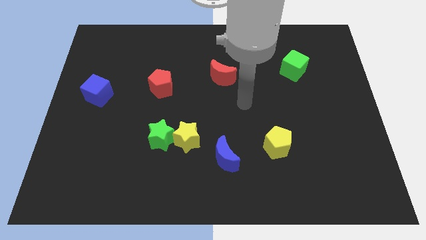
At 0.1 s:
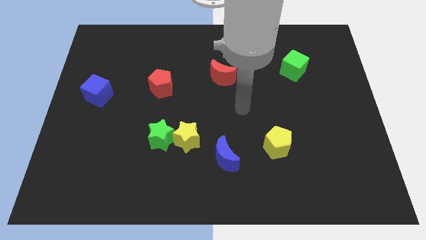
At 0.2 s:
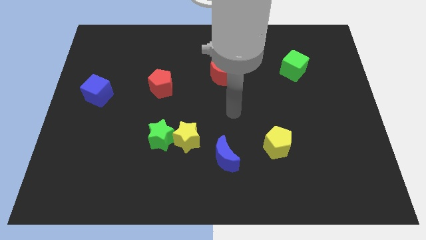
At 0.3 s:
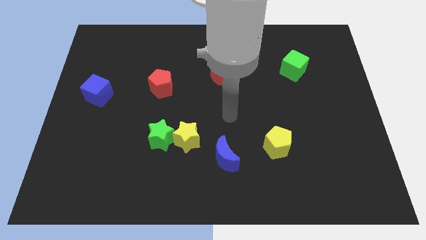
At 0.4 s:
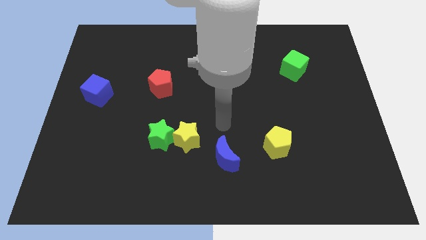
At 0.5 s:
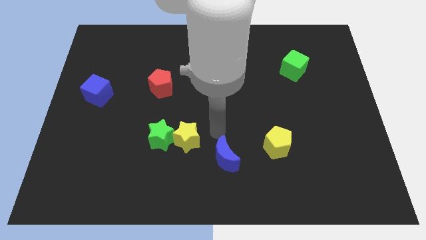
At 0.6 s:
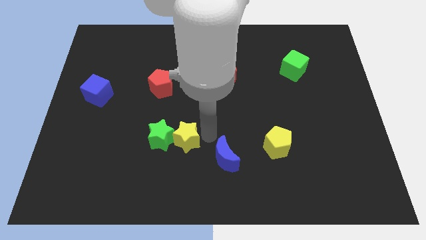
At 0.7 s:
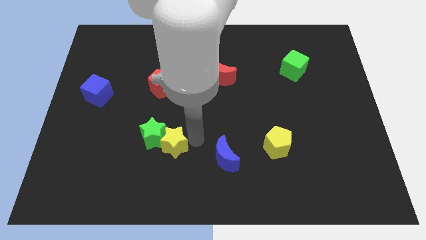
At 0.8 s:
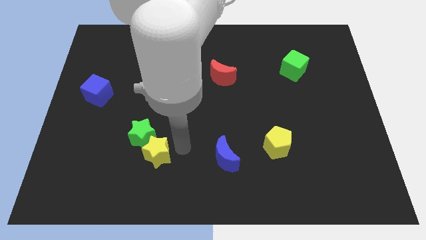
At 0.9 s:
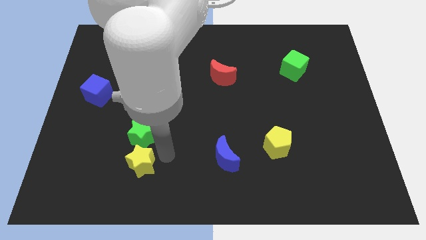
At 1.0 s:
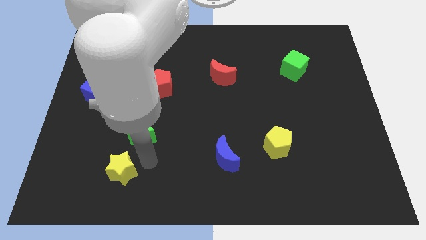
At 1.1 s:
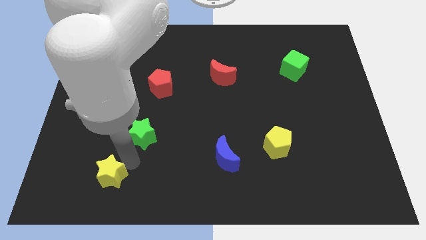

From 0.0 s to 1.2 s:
move the green star away from the yellow star

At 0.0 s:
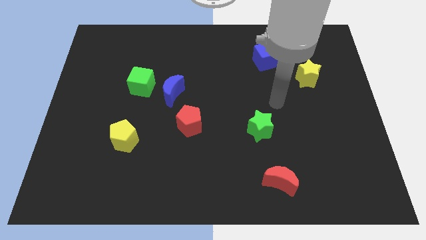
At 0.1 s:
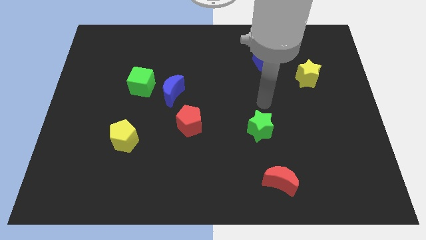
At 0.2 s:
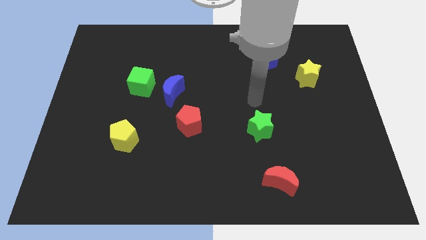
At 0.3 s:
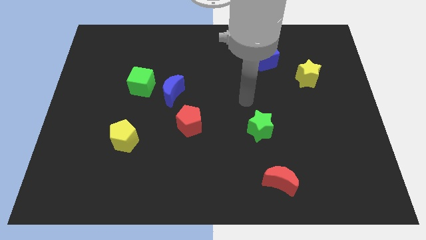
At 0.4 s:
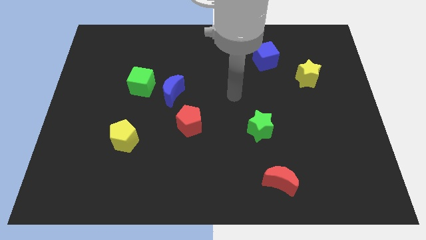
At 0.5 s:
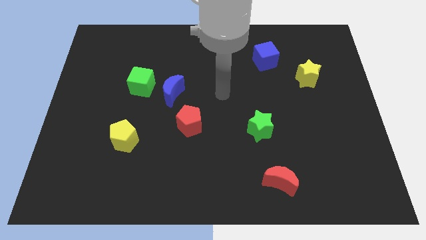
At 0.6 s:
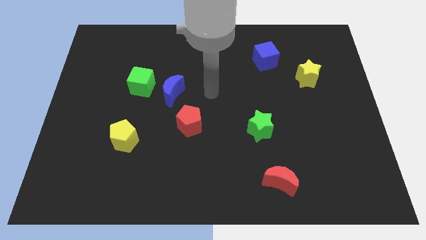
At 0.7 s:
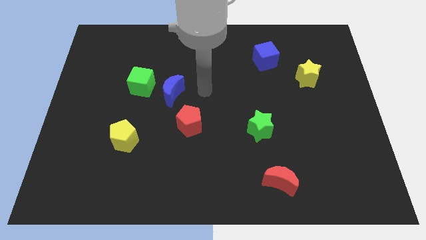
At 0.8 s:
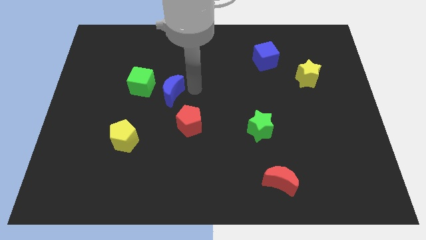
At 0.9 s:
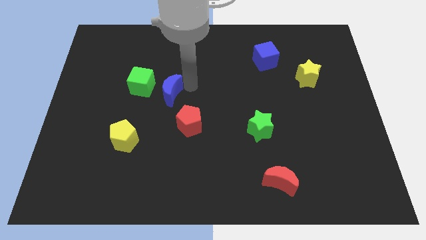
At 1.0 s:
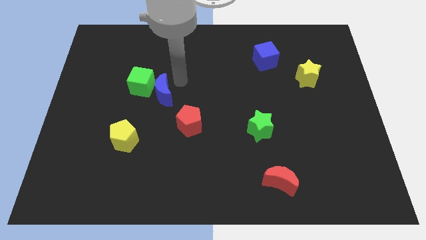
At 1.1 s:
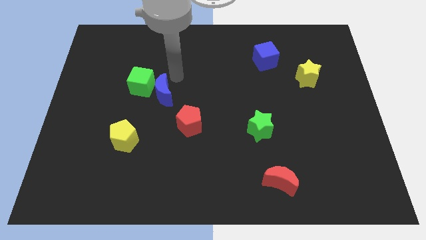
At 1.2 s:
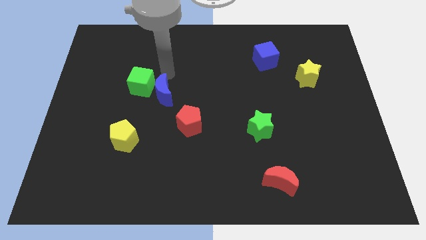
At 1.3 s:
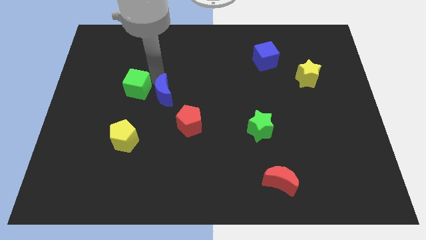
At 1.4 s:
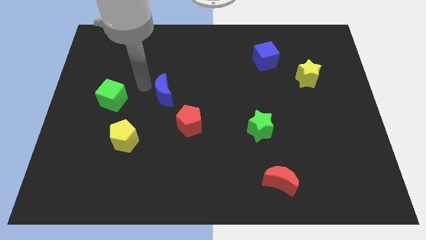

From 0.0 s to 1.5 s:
move the blue moon away from the green cube

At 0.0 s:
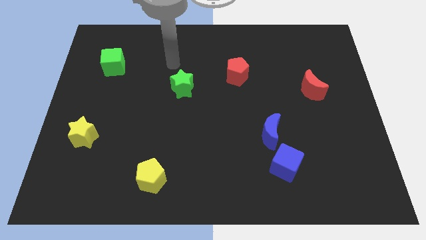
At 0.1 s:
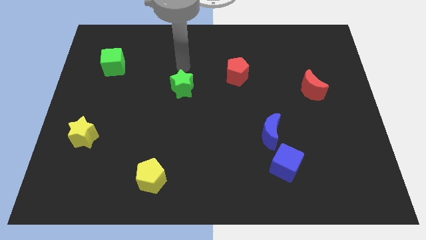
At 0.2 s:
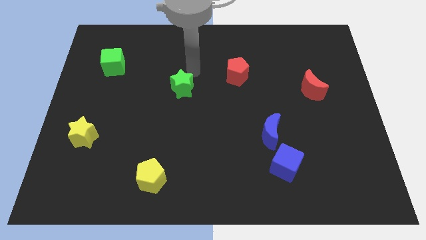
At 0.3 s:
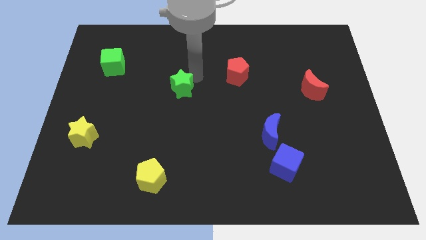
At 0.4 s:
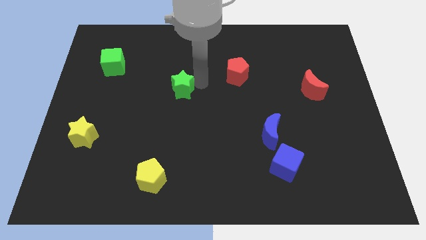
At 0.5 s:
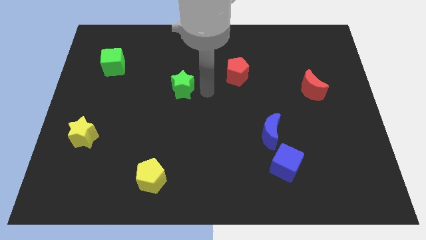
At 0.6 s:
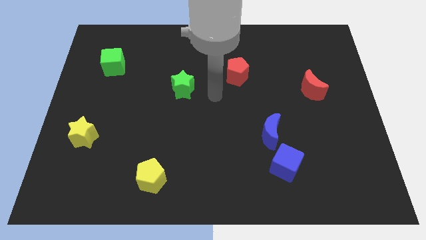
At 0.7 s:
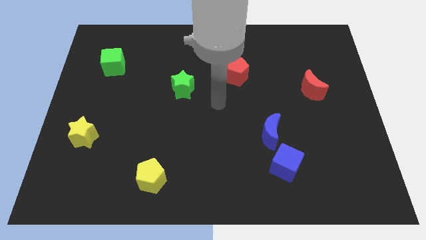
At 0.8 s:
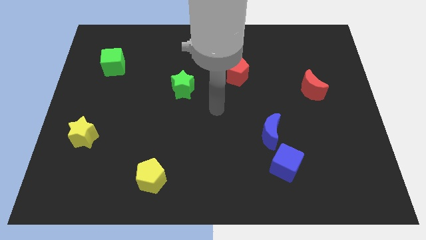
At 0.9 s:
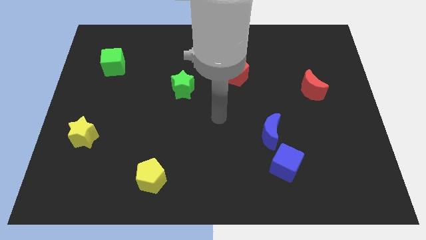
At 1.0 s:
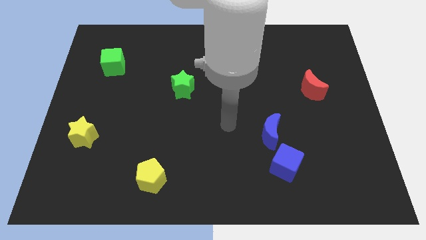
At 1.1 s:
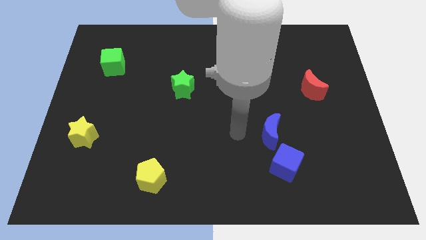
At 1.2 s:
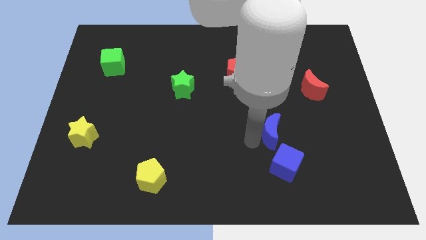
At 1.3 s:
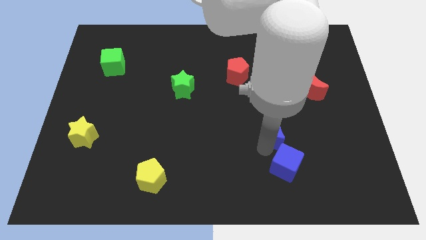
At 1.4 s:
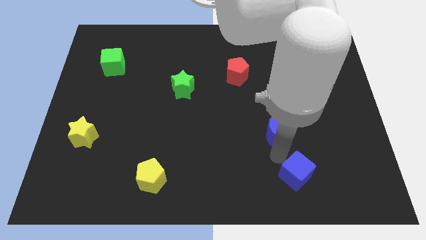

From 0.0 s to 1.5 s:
separate the blue moon from the blue cube

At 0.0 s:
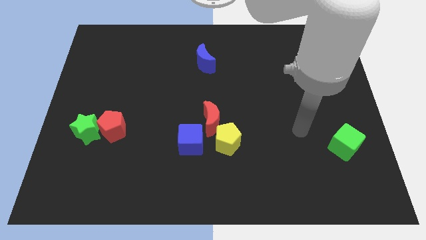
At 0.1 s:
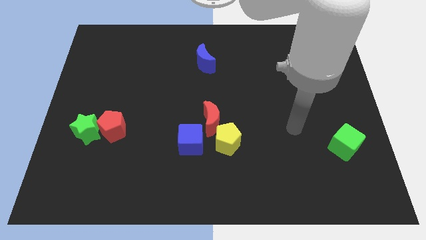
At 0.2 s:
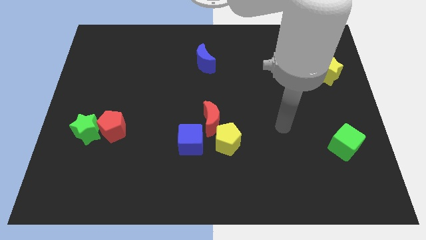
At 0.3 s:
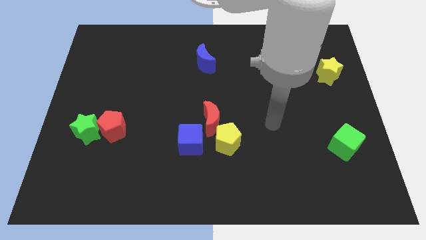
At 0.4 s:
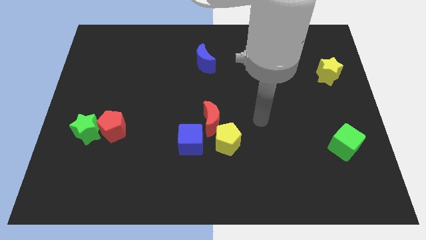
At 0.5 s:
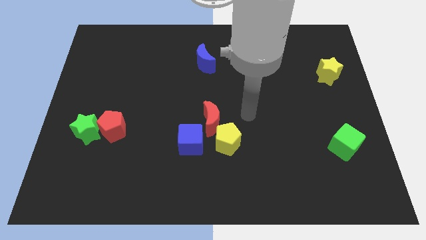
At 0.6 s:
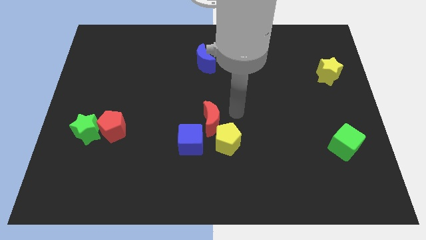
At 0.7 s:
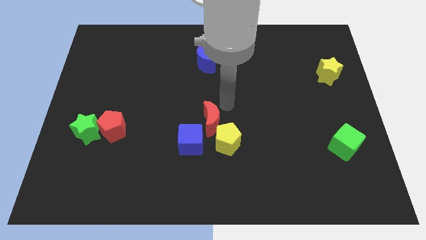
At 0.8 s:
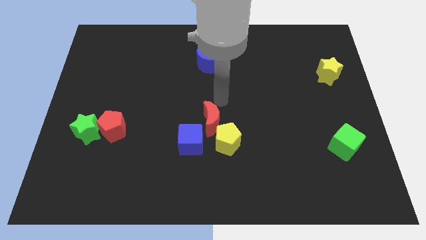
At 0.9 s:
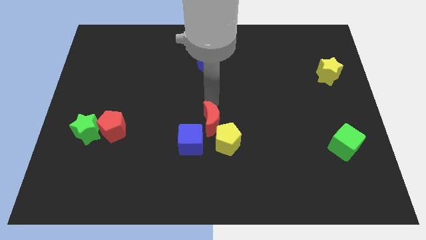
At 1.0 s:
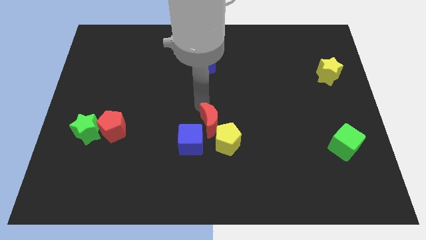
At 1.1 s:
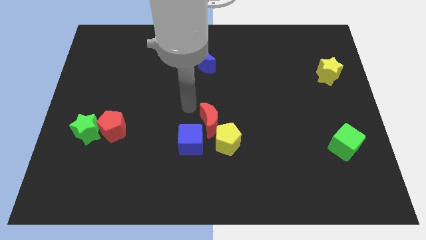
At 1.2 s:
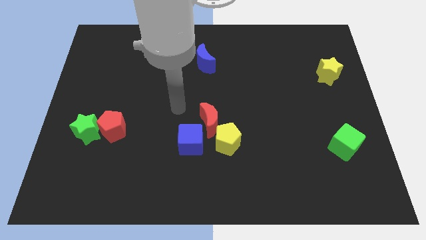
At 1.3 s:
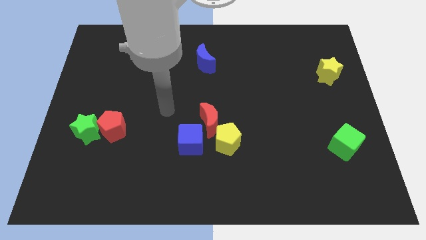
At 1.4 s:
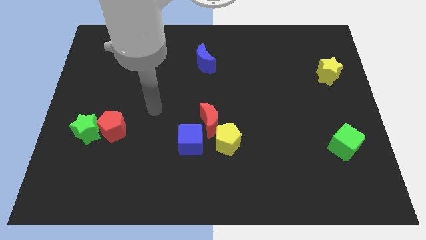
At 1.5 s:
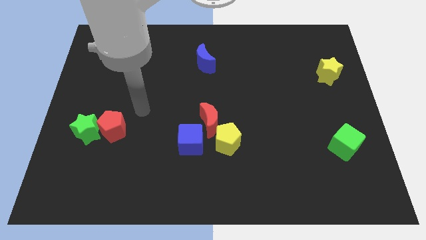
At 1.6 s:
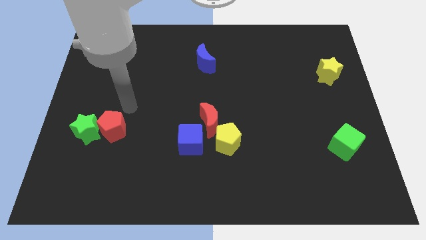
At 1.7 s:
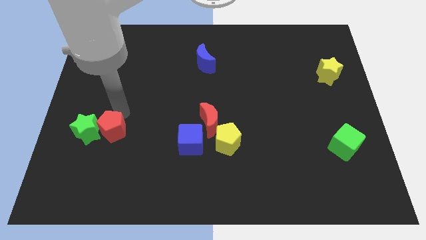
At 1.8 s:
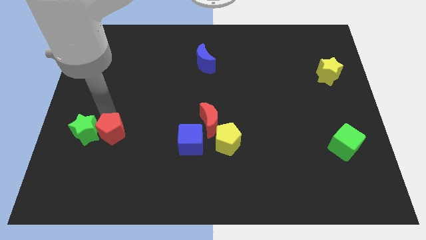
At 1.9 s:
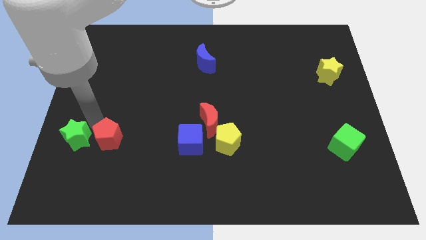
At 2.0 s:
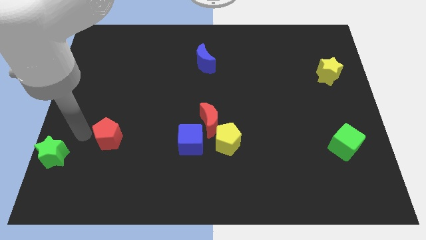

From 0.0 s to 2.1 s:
separate the red pentagon from the green star

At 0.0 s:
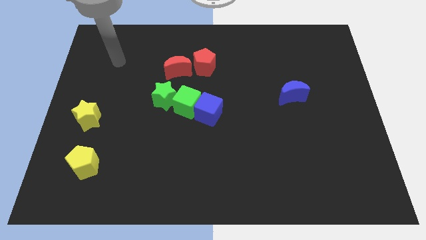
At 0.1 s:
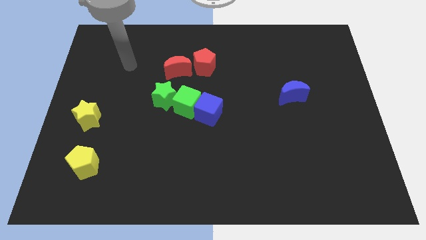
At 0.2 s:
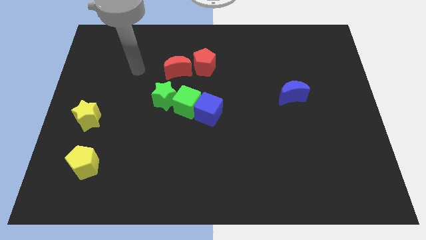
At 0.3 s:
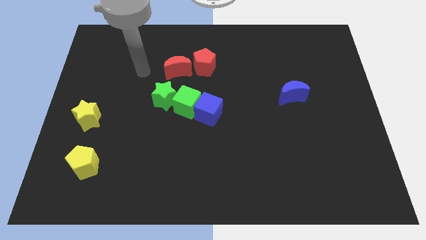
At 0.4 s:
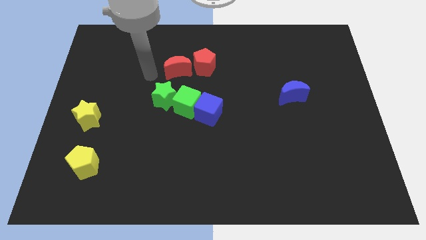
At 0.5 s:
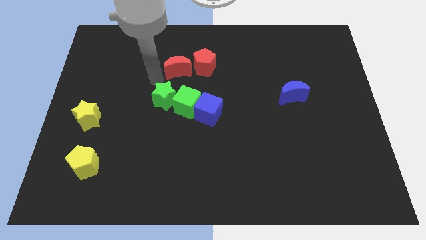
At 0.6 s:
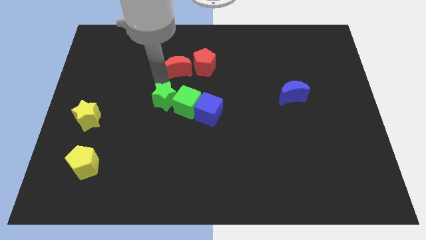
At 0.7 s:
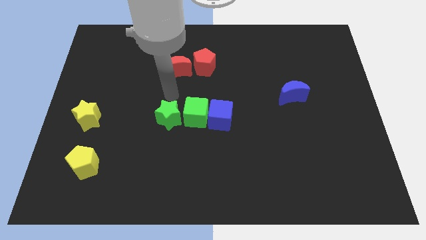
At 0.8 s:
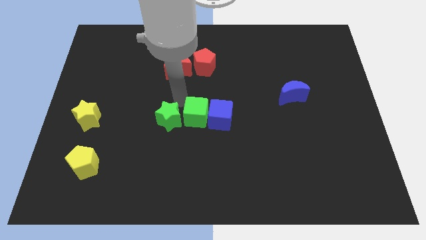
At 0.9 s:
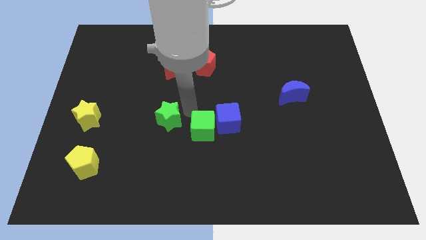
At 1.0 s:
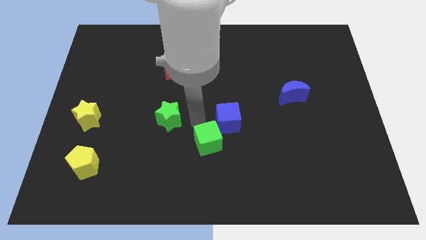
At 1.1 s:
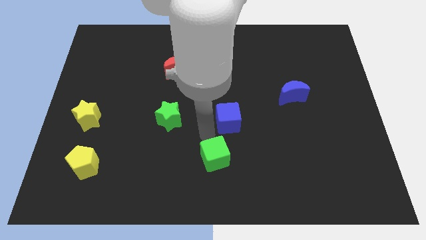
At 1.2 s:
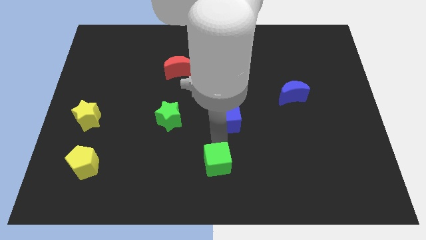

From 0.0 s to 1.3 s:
move the blue cube away from the green cube

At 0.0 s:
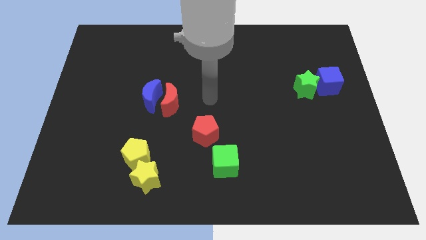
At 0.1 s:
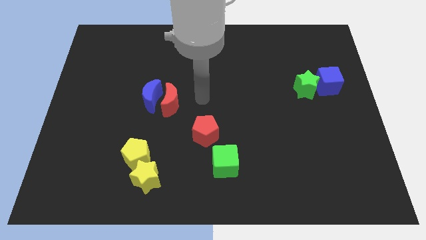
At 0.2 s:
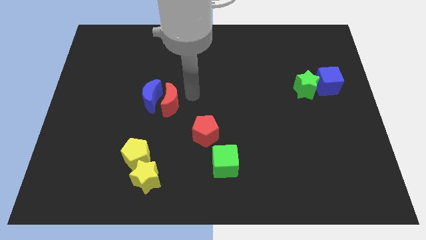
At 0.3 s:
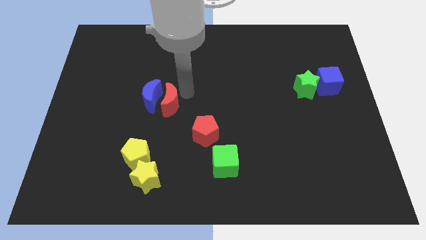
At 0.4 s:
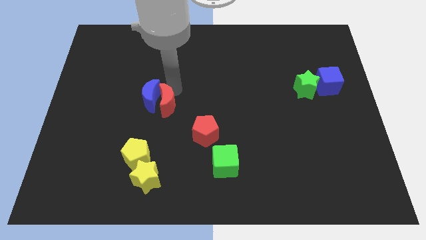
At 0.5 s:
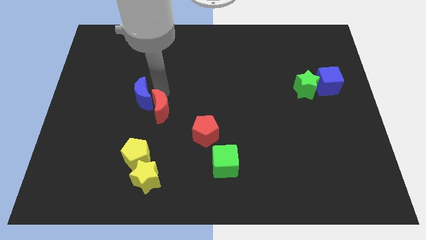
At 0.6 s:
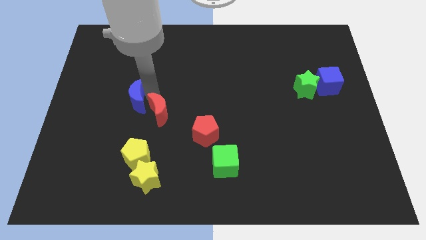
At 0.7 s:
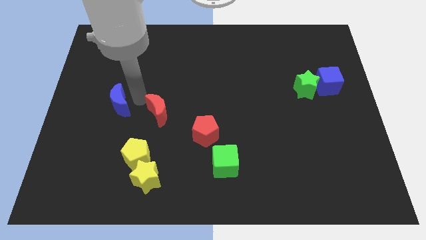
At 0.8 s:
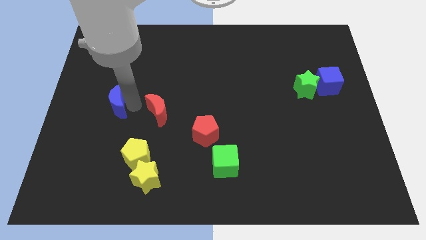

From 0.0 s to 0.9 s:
move the red moon away from the blue moon

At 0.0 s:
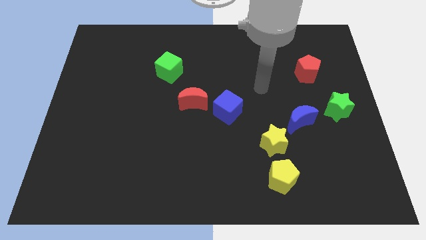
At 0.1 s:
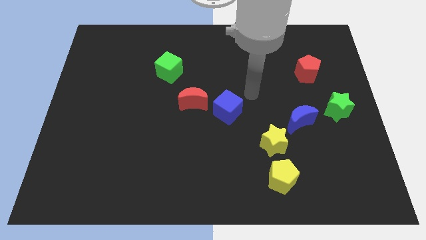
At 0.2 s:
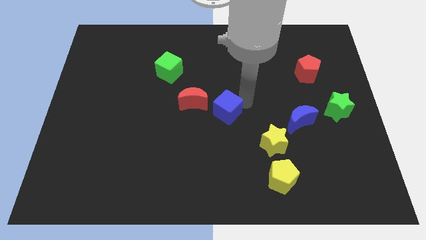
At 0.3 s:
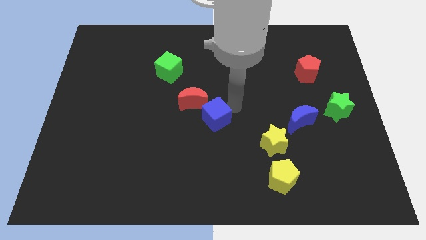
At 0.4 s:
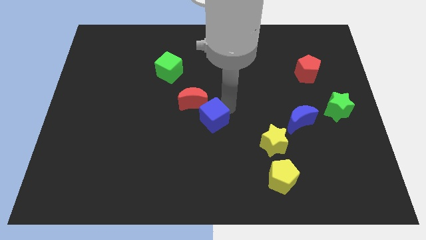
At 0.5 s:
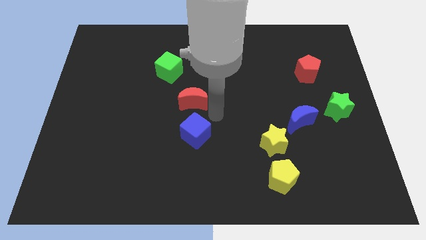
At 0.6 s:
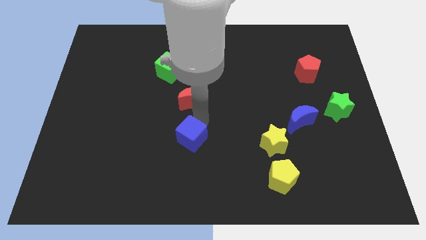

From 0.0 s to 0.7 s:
move the red moon away from the blue cube

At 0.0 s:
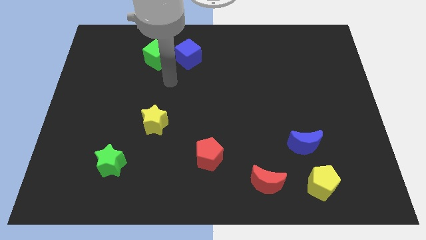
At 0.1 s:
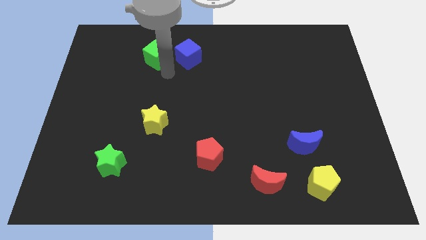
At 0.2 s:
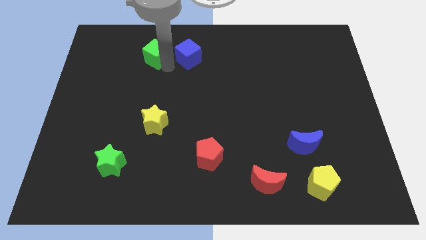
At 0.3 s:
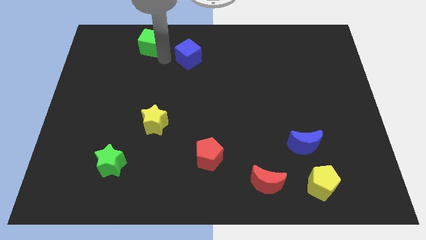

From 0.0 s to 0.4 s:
pull the blue cube apart from the green cube
